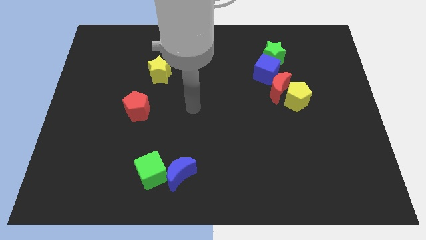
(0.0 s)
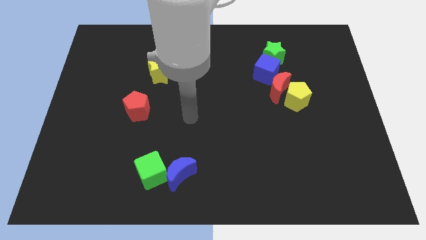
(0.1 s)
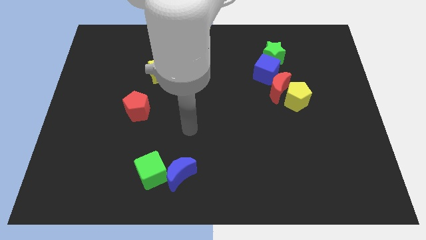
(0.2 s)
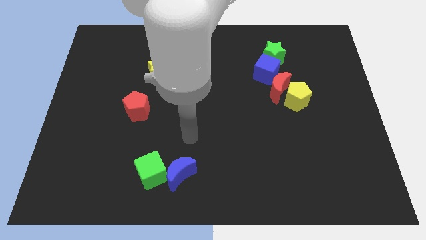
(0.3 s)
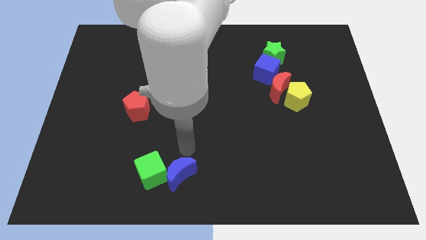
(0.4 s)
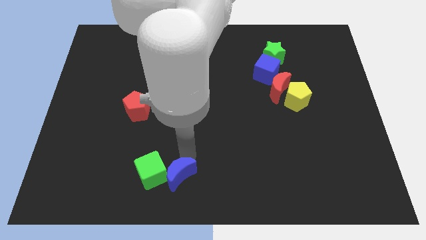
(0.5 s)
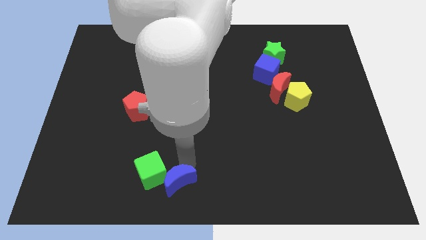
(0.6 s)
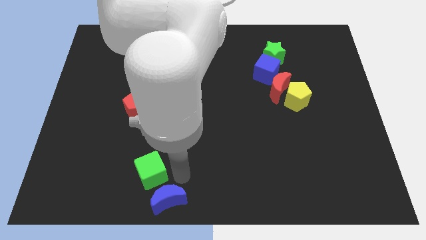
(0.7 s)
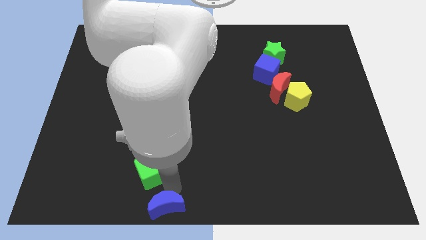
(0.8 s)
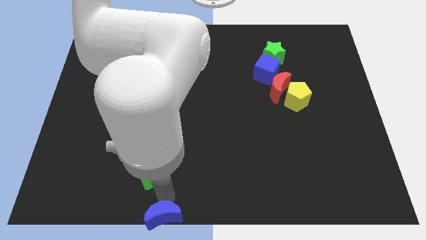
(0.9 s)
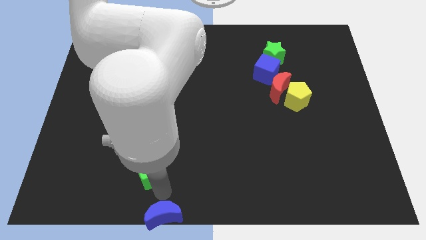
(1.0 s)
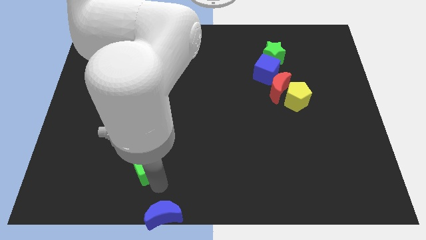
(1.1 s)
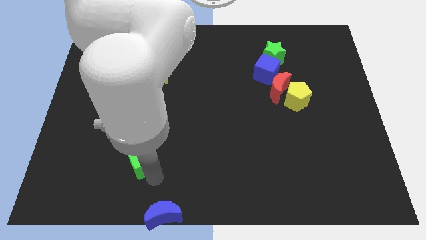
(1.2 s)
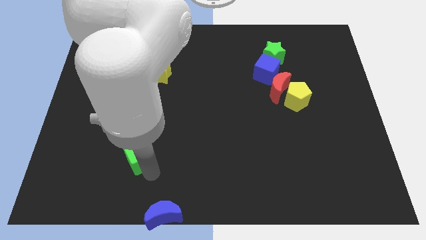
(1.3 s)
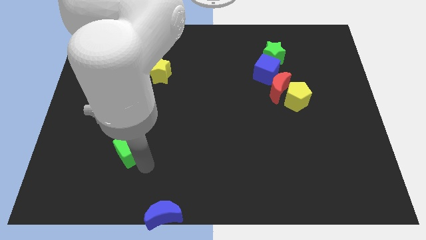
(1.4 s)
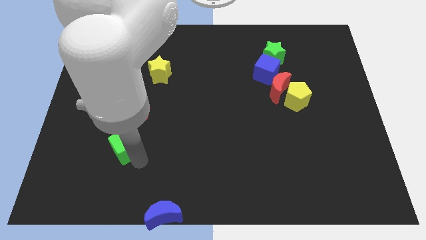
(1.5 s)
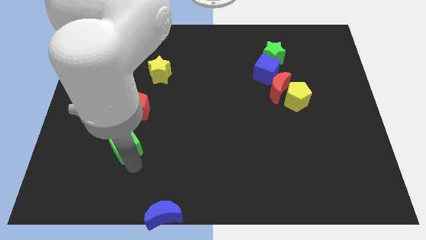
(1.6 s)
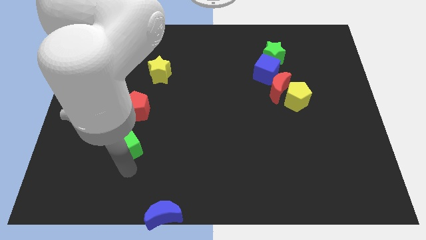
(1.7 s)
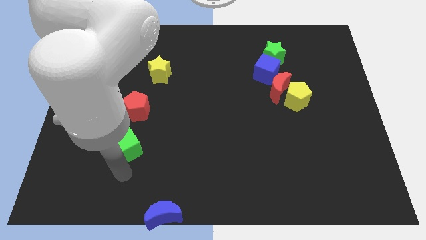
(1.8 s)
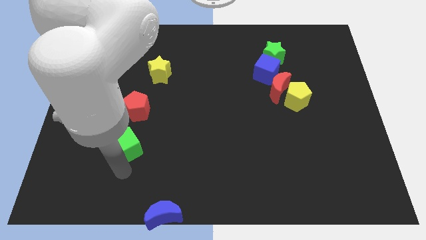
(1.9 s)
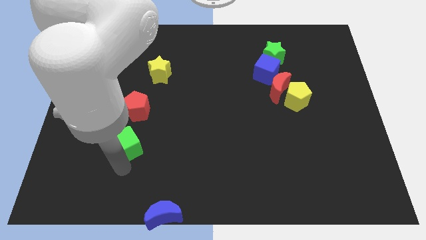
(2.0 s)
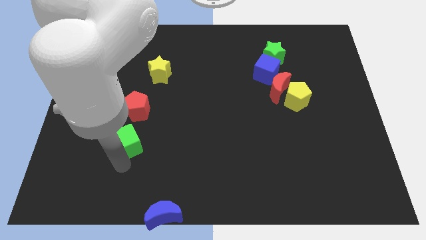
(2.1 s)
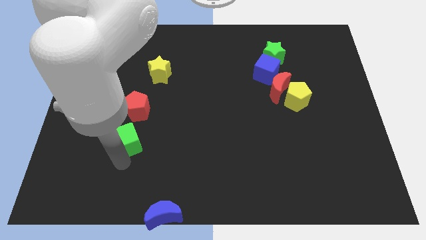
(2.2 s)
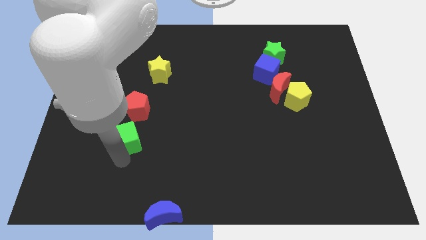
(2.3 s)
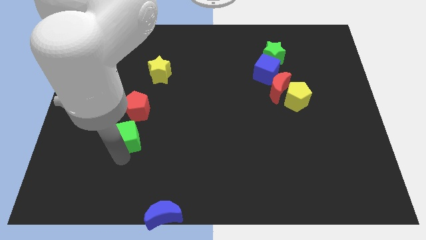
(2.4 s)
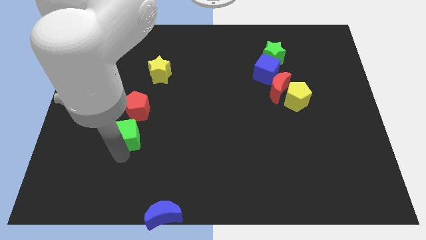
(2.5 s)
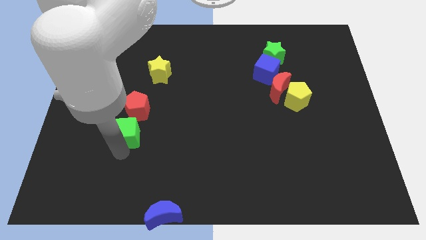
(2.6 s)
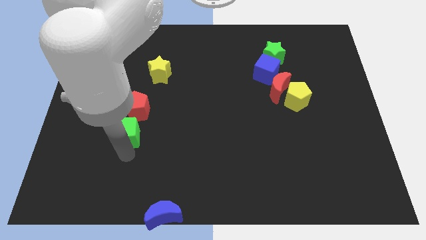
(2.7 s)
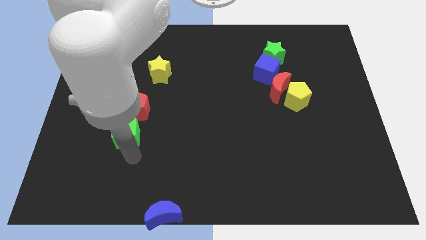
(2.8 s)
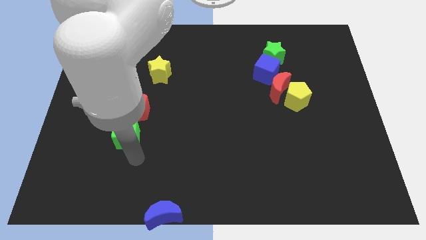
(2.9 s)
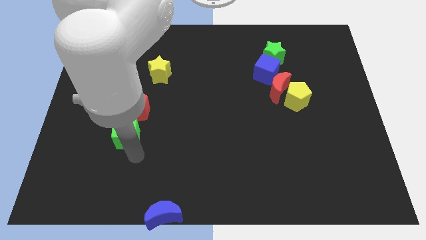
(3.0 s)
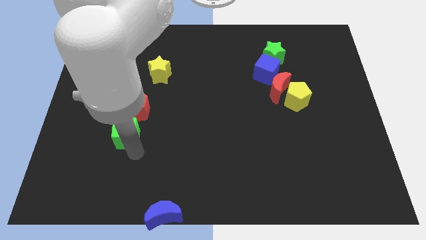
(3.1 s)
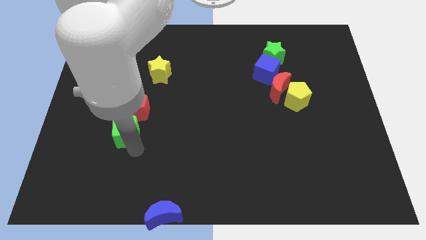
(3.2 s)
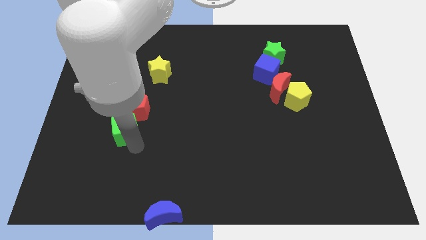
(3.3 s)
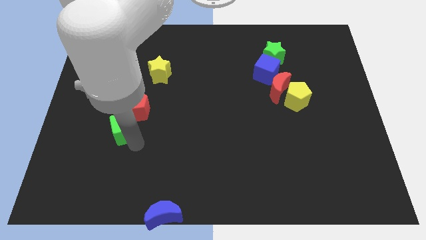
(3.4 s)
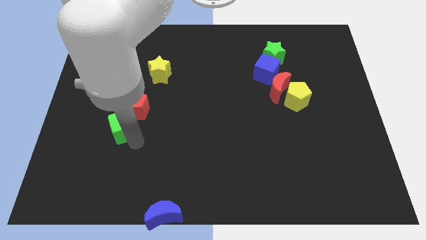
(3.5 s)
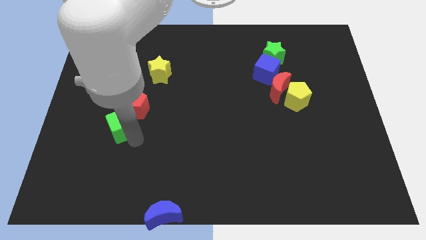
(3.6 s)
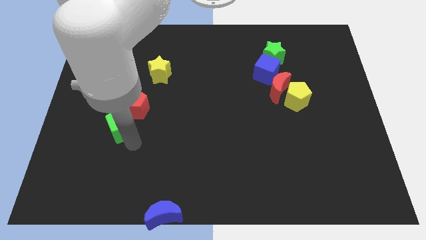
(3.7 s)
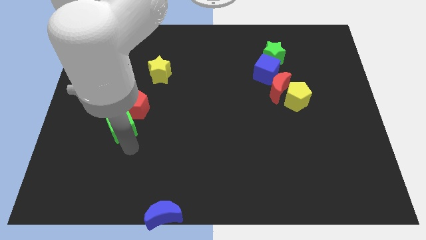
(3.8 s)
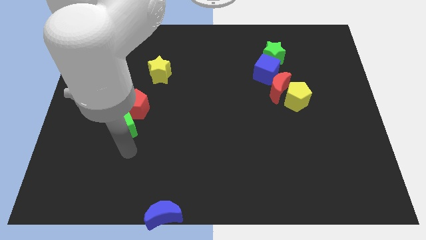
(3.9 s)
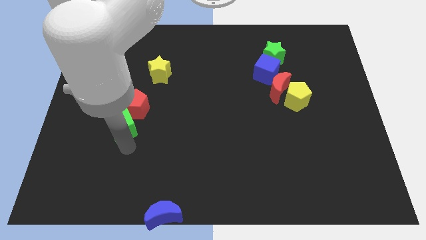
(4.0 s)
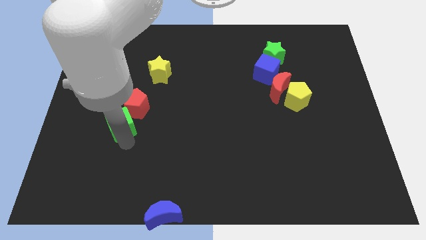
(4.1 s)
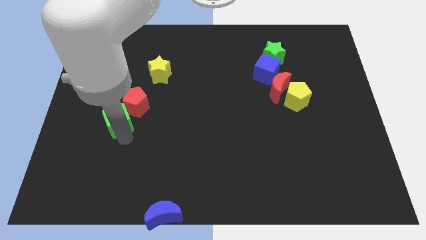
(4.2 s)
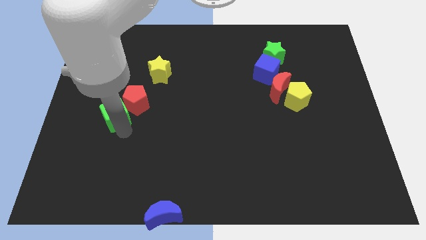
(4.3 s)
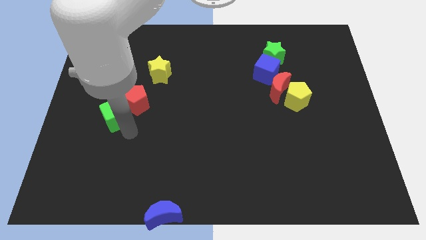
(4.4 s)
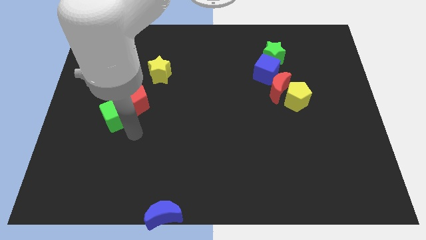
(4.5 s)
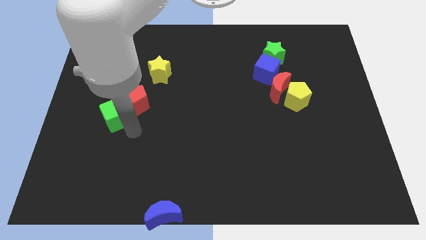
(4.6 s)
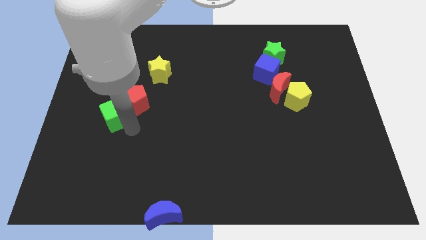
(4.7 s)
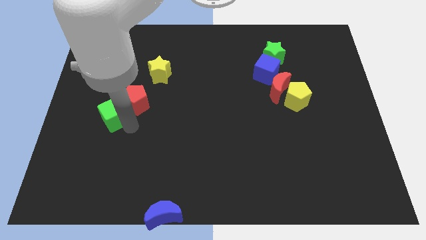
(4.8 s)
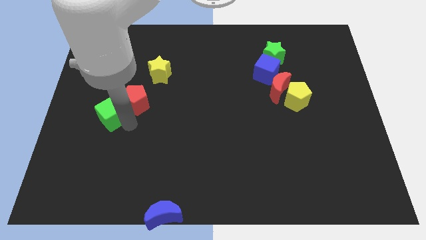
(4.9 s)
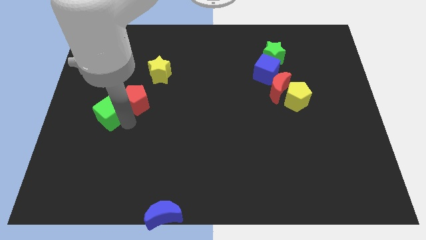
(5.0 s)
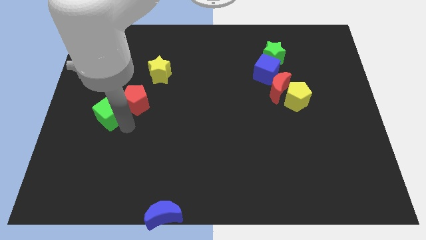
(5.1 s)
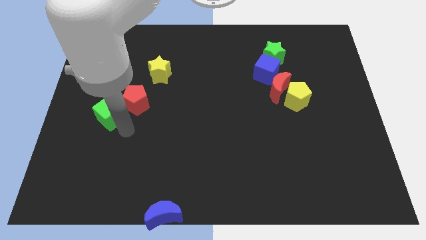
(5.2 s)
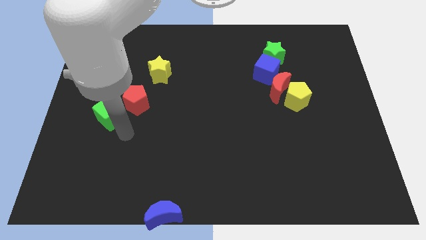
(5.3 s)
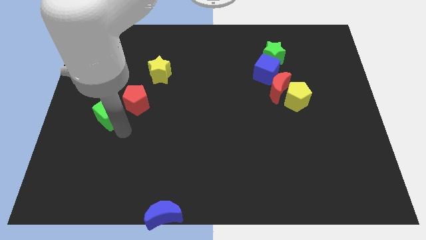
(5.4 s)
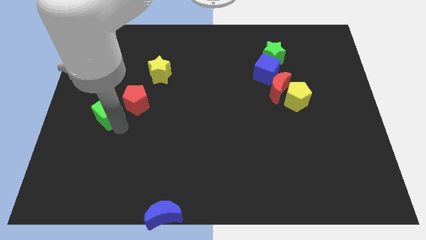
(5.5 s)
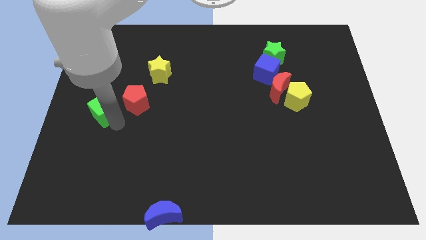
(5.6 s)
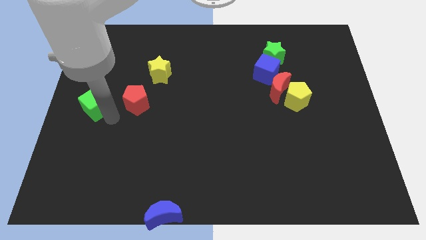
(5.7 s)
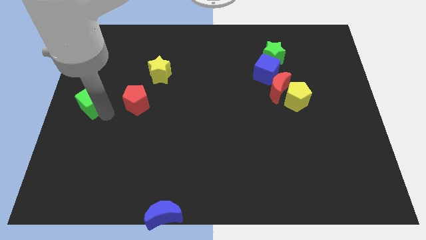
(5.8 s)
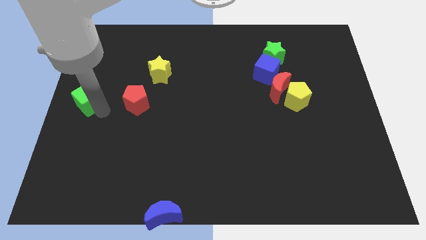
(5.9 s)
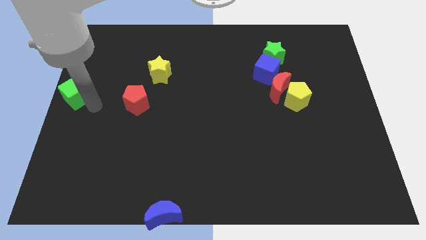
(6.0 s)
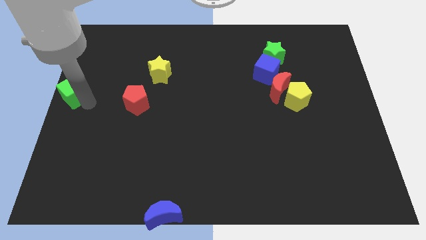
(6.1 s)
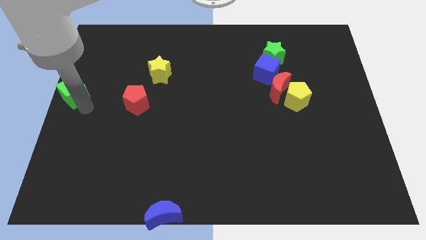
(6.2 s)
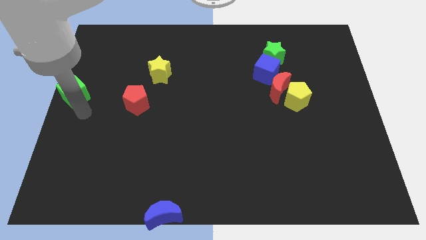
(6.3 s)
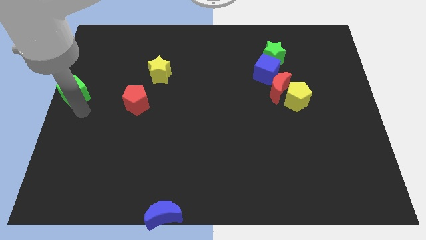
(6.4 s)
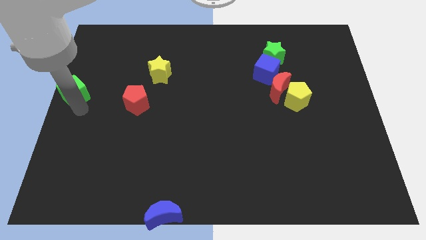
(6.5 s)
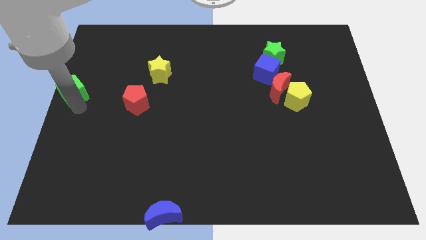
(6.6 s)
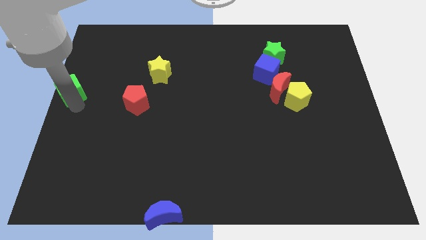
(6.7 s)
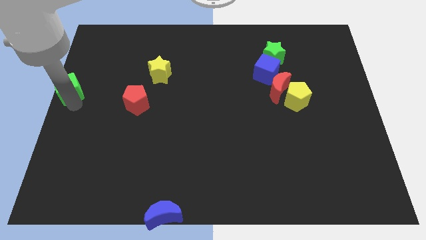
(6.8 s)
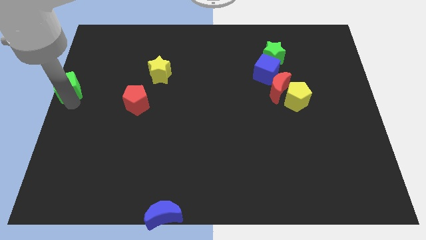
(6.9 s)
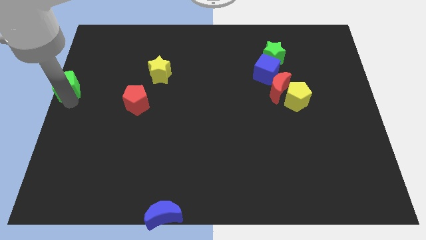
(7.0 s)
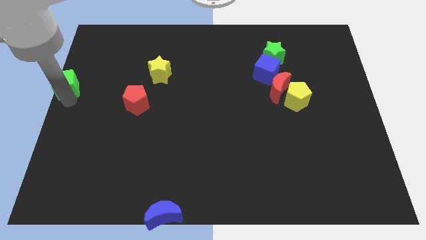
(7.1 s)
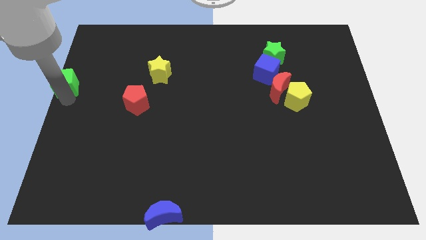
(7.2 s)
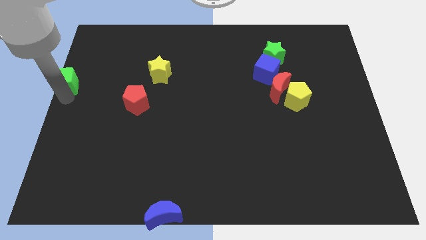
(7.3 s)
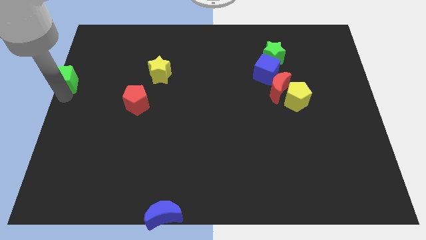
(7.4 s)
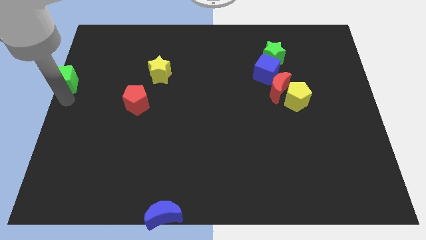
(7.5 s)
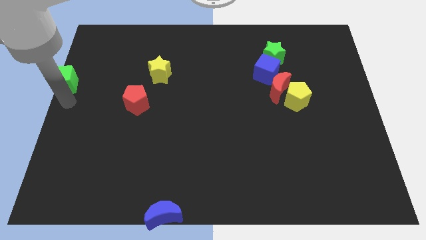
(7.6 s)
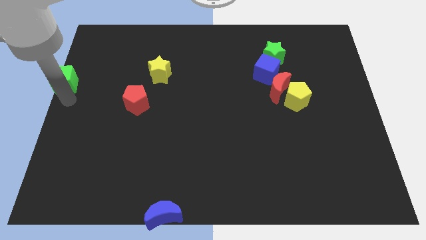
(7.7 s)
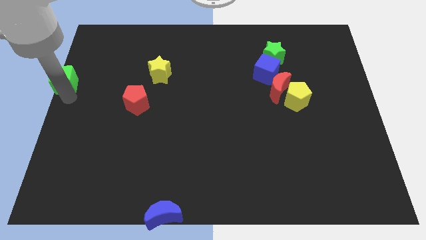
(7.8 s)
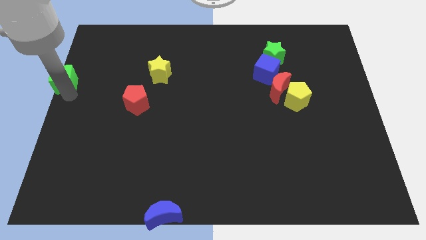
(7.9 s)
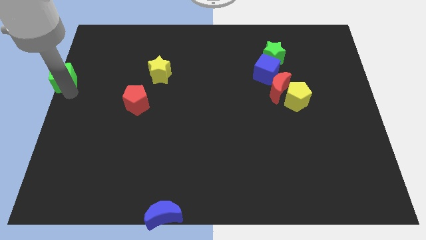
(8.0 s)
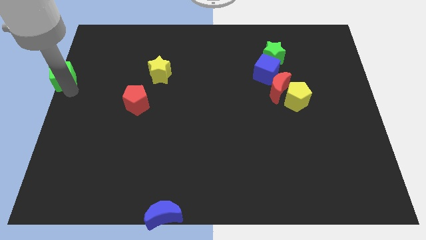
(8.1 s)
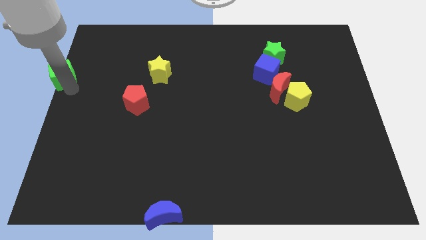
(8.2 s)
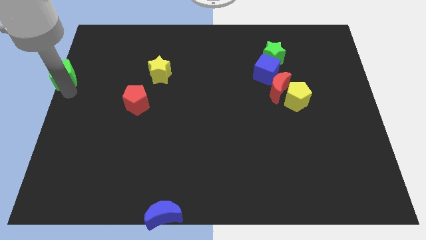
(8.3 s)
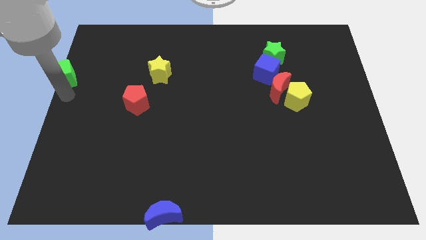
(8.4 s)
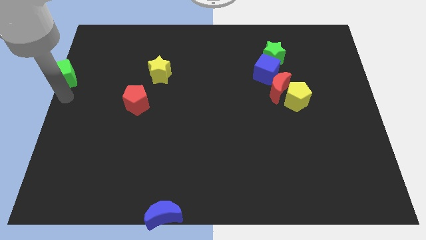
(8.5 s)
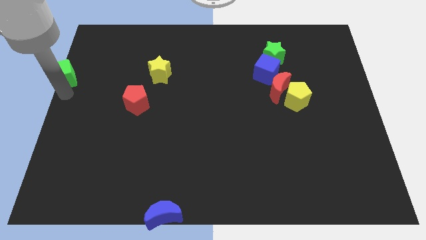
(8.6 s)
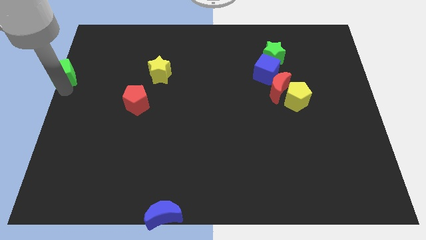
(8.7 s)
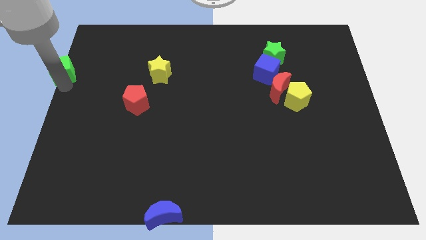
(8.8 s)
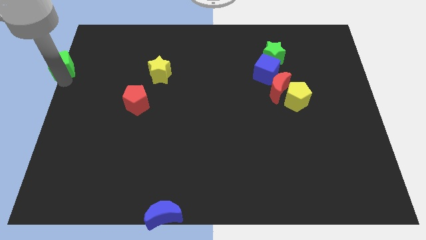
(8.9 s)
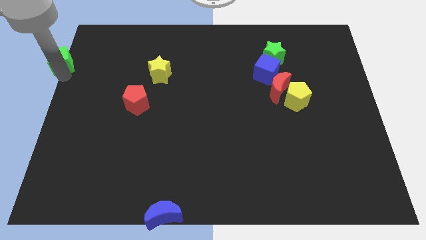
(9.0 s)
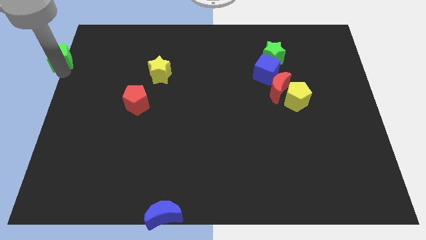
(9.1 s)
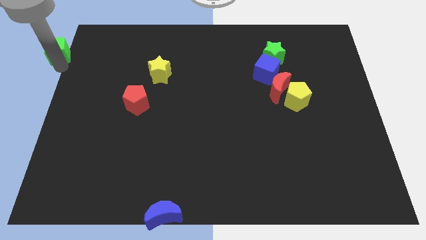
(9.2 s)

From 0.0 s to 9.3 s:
move the green cube to the upper left corner
